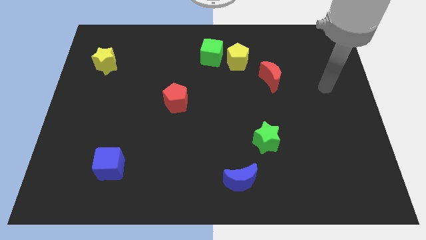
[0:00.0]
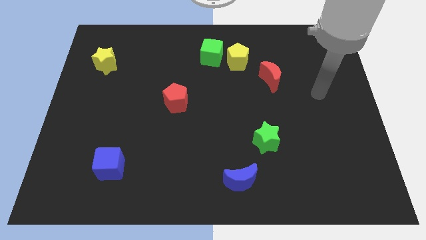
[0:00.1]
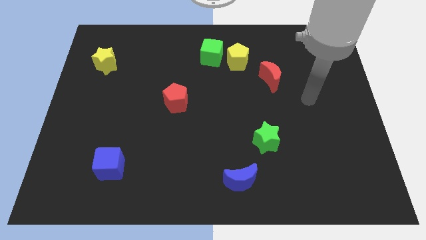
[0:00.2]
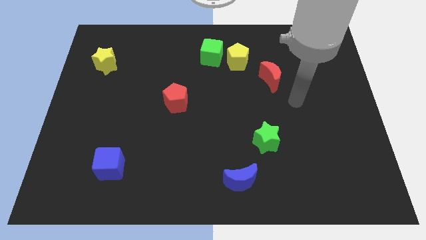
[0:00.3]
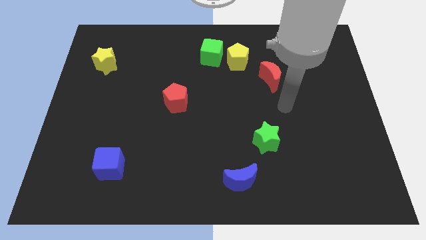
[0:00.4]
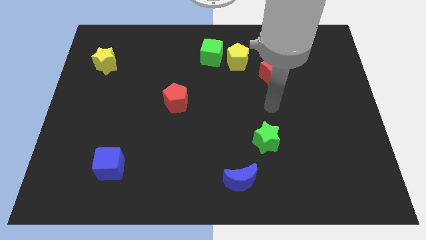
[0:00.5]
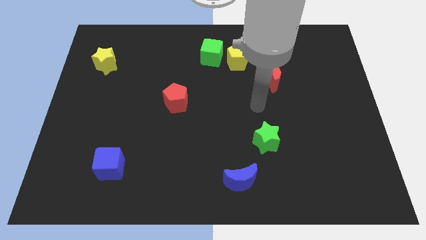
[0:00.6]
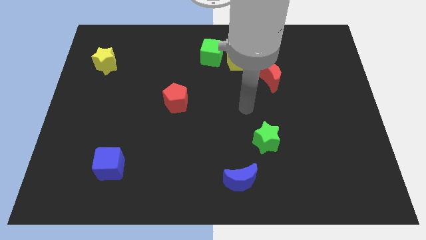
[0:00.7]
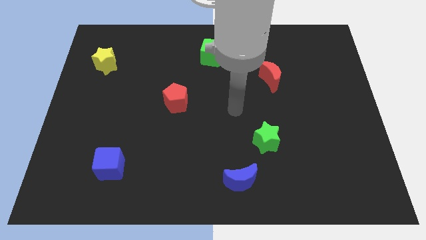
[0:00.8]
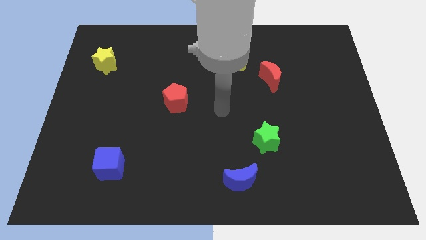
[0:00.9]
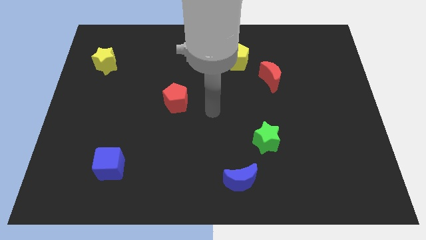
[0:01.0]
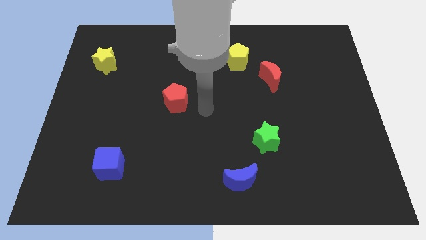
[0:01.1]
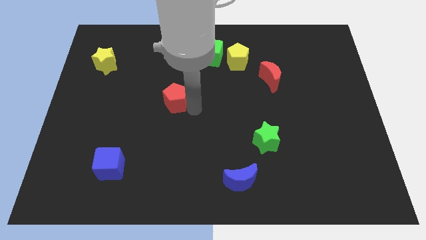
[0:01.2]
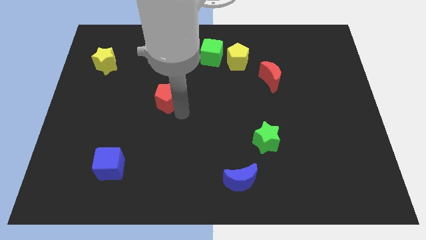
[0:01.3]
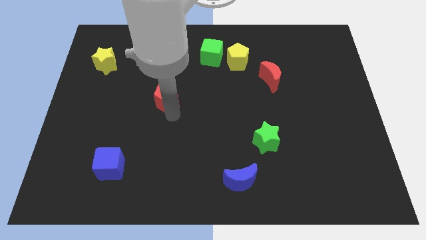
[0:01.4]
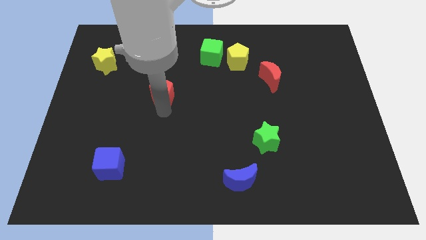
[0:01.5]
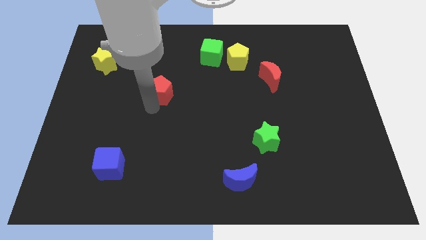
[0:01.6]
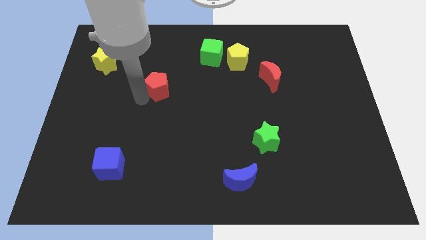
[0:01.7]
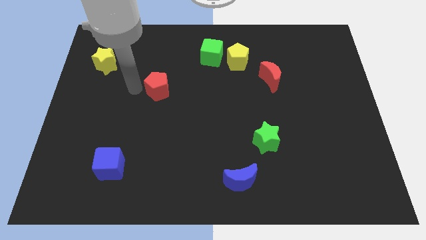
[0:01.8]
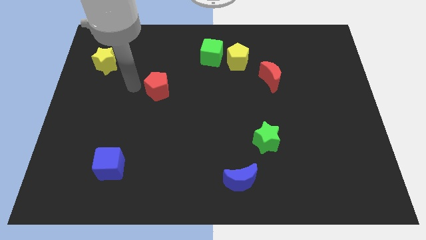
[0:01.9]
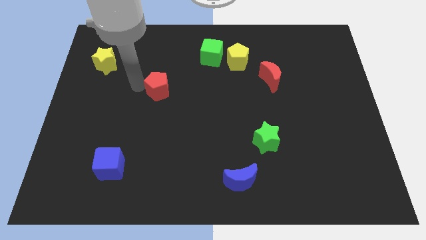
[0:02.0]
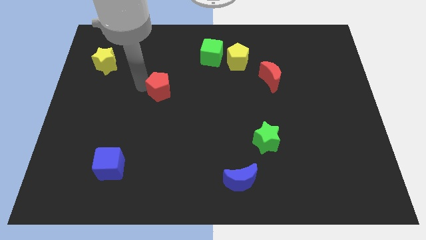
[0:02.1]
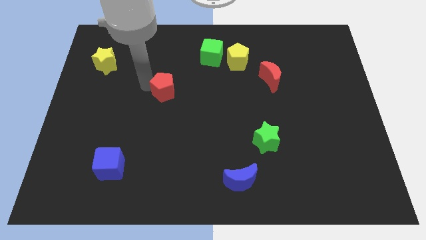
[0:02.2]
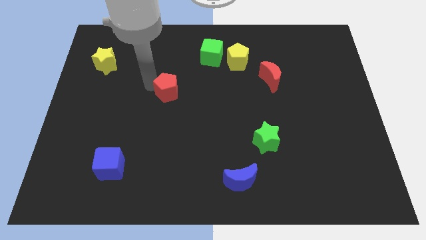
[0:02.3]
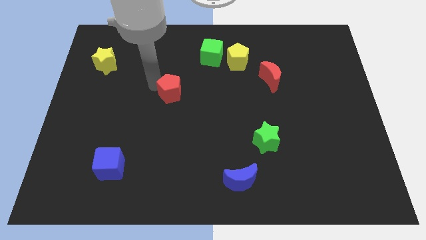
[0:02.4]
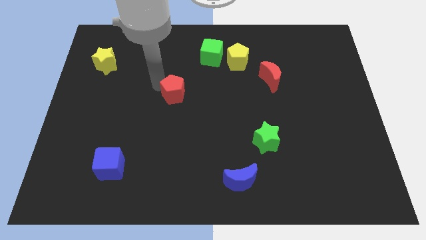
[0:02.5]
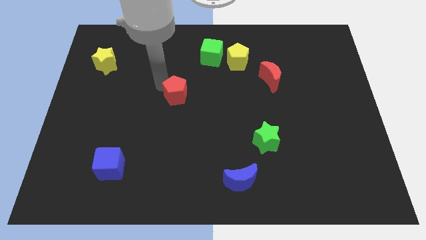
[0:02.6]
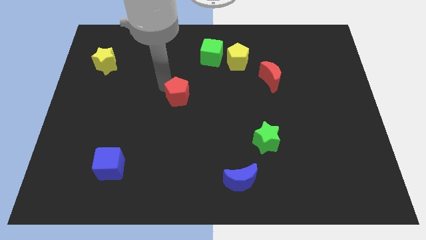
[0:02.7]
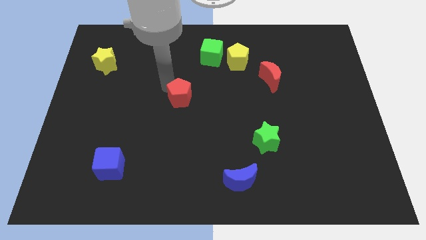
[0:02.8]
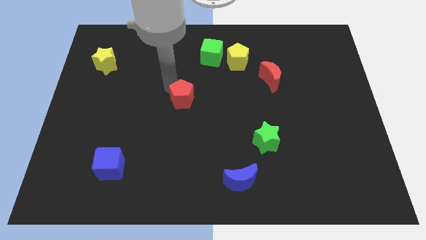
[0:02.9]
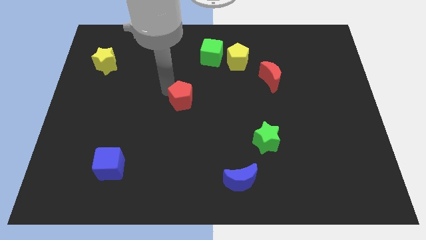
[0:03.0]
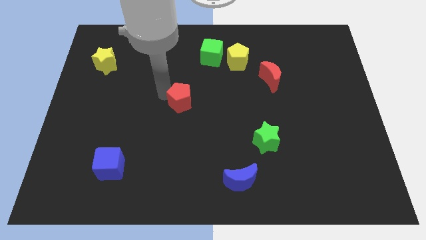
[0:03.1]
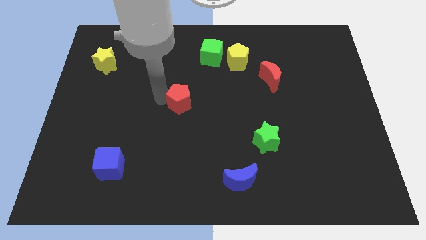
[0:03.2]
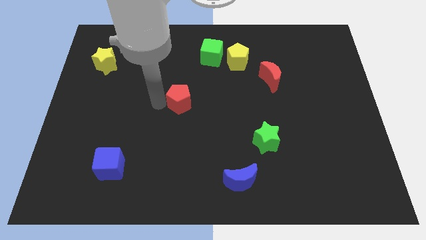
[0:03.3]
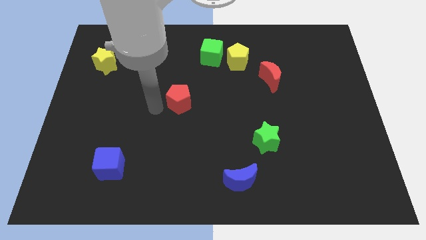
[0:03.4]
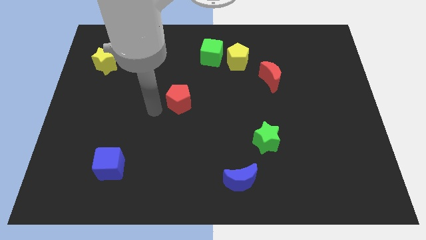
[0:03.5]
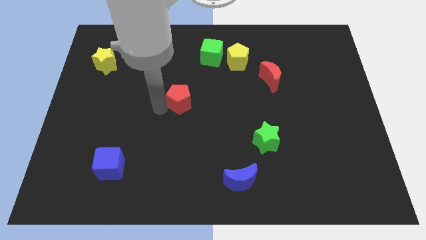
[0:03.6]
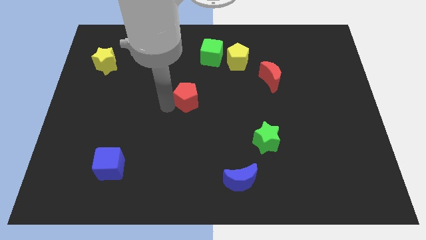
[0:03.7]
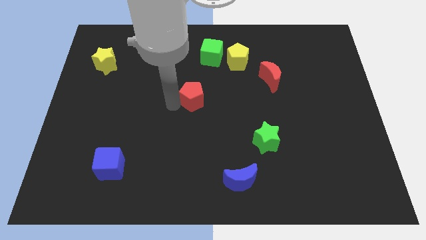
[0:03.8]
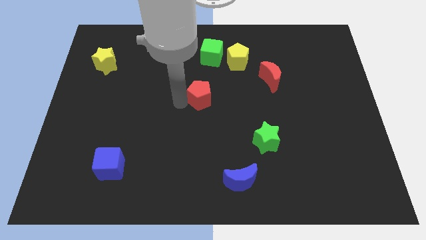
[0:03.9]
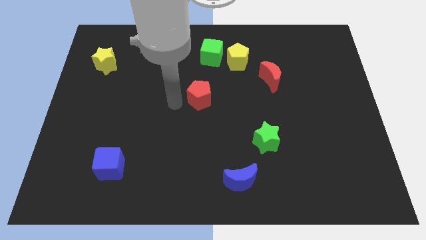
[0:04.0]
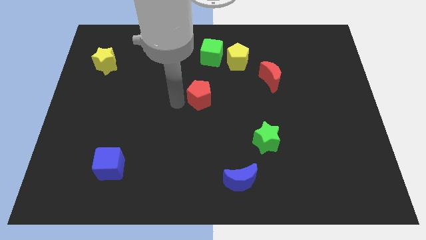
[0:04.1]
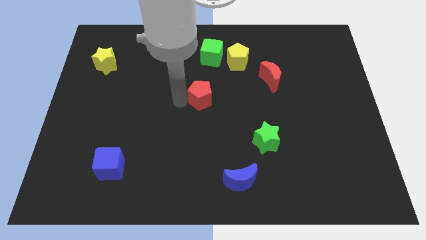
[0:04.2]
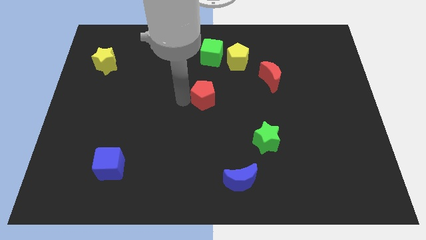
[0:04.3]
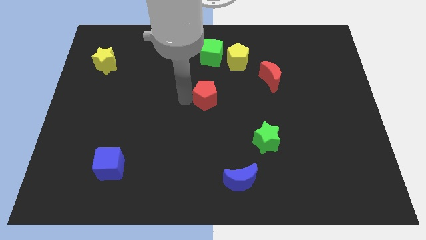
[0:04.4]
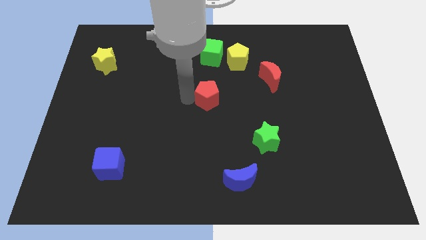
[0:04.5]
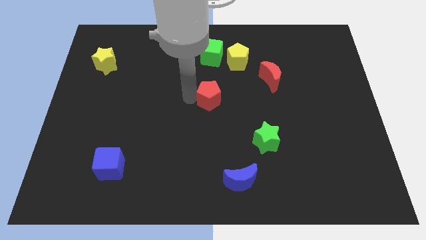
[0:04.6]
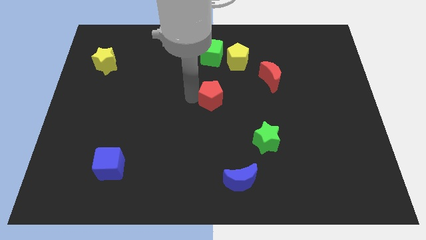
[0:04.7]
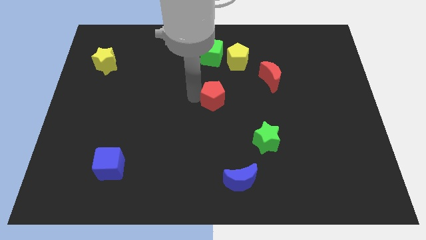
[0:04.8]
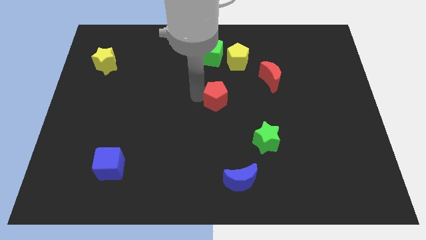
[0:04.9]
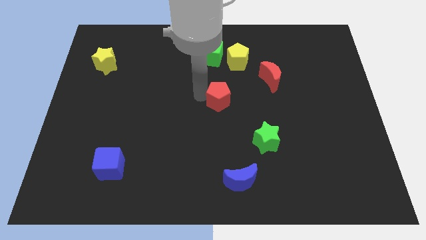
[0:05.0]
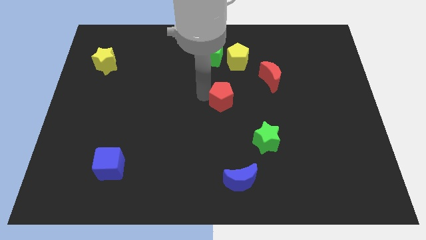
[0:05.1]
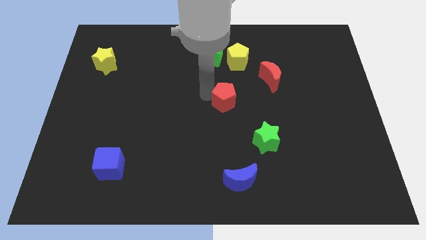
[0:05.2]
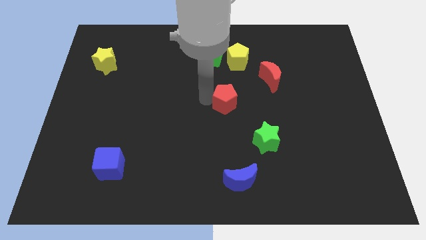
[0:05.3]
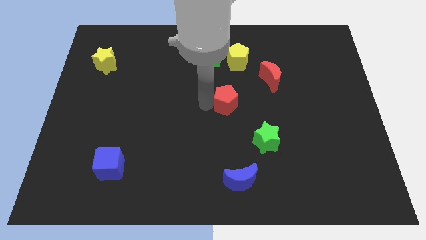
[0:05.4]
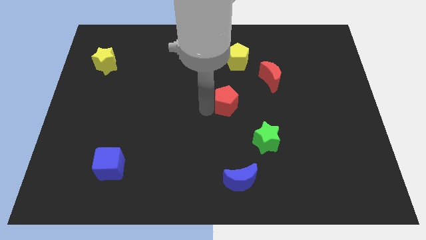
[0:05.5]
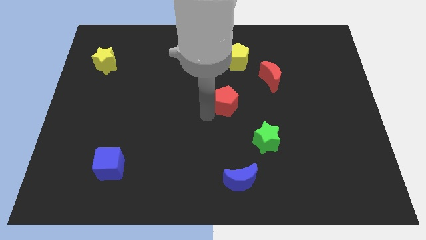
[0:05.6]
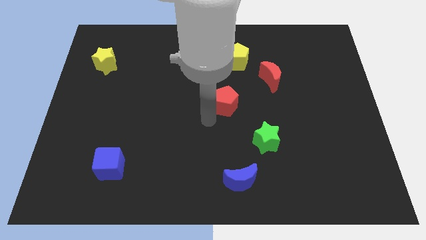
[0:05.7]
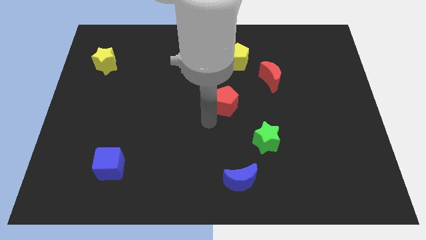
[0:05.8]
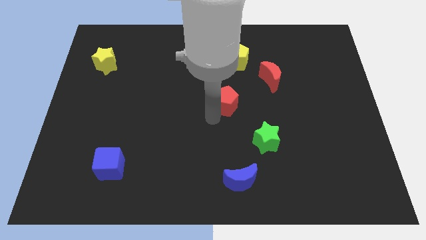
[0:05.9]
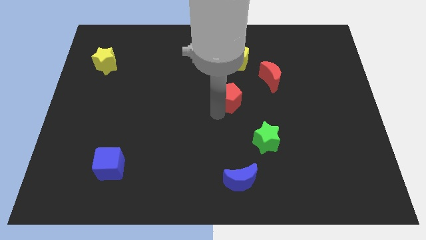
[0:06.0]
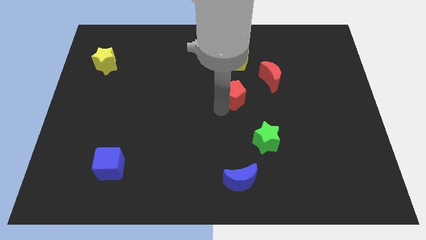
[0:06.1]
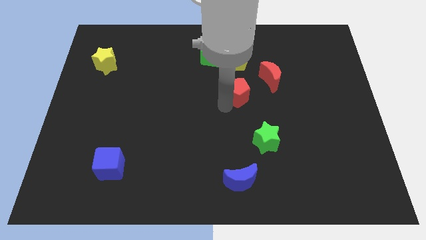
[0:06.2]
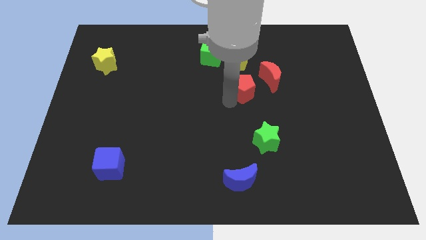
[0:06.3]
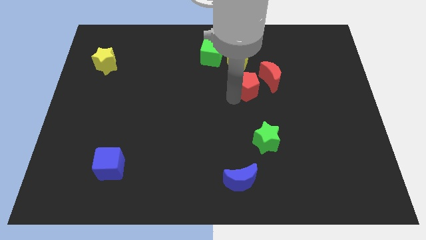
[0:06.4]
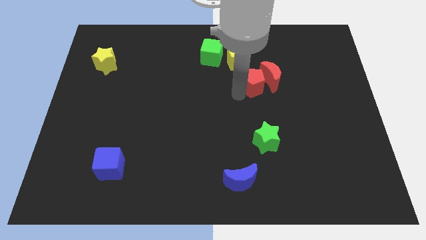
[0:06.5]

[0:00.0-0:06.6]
slide the red pentagon next to the red moon

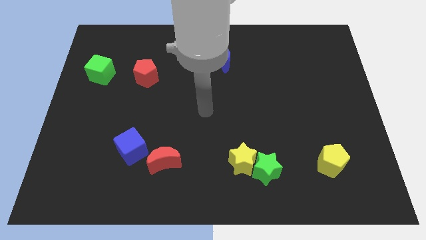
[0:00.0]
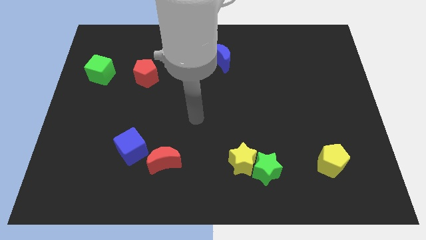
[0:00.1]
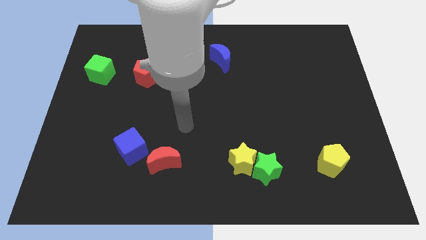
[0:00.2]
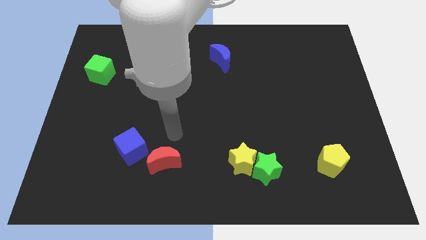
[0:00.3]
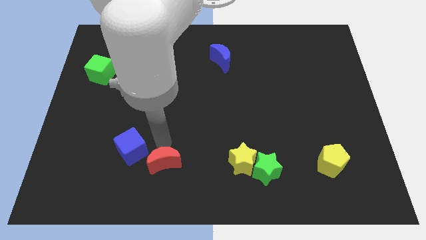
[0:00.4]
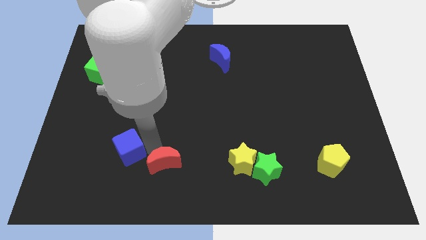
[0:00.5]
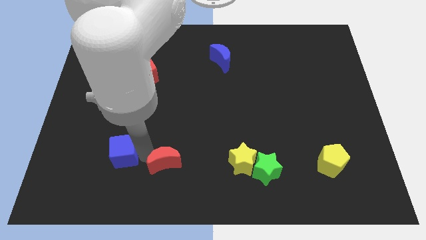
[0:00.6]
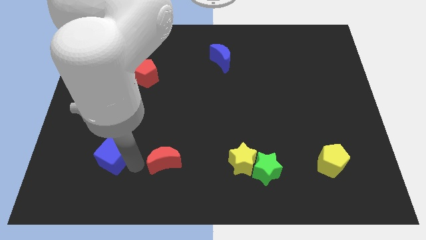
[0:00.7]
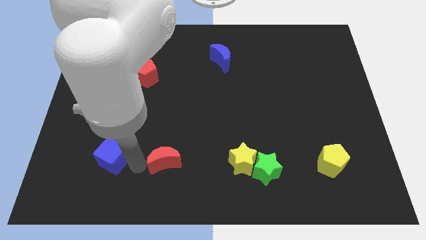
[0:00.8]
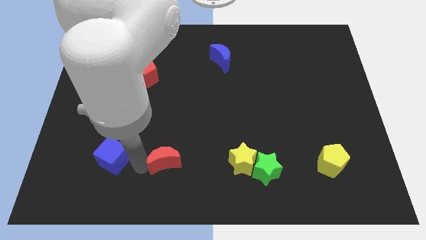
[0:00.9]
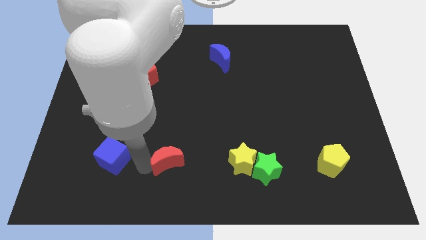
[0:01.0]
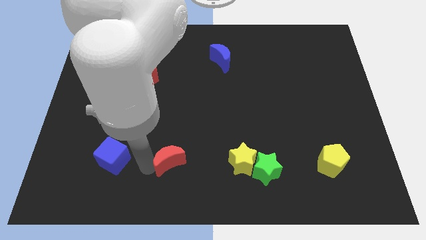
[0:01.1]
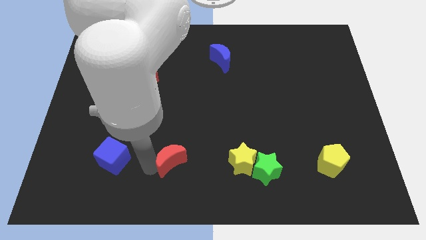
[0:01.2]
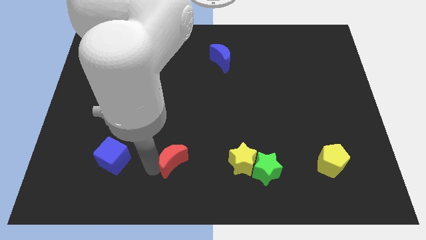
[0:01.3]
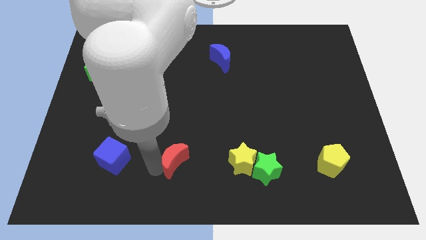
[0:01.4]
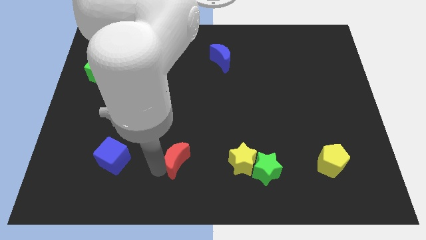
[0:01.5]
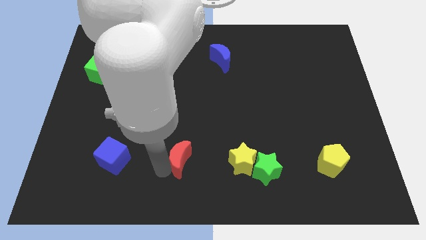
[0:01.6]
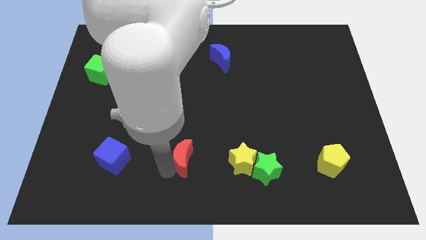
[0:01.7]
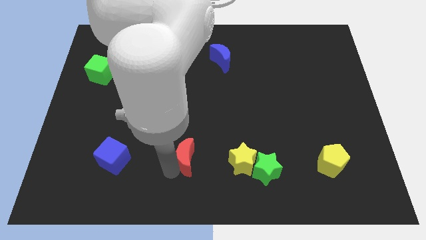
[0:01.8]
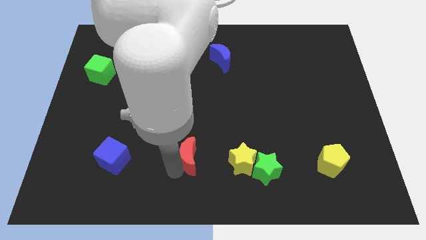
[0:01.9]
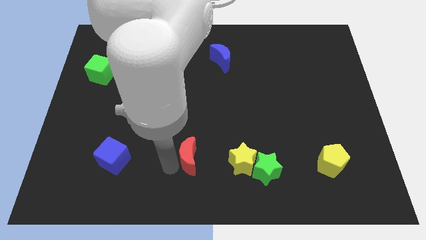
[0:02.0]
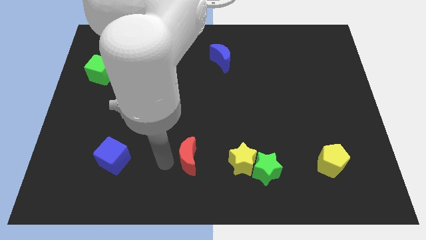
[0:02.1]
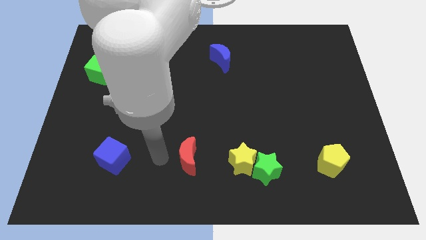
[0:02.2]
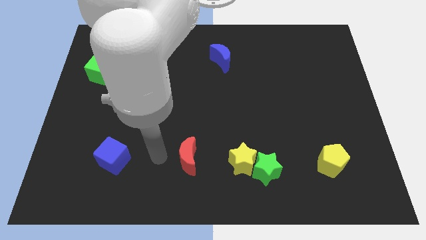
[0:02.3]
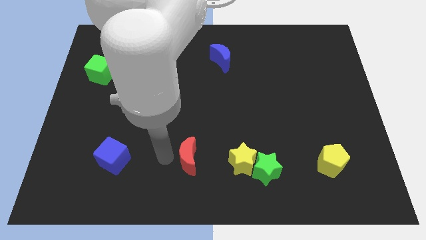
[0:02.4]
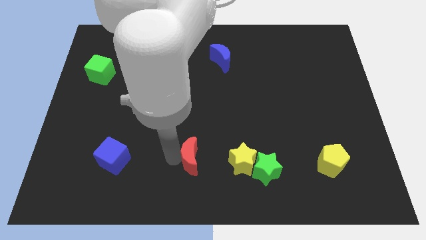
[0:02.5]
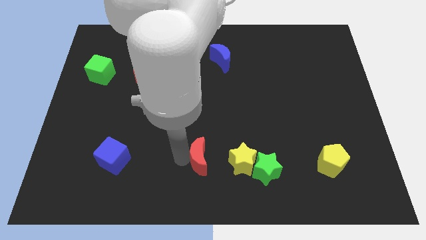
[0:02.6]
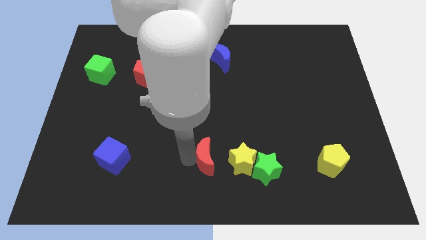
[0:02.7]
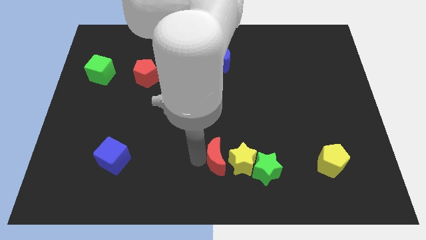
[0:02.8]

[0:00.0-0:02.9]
put the red moon towards the yellow star
